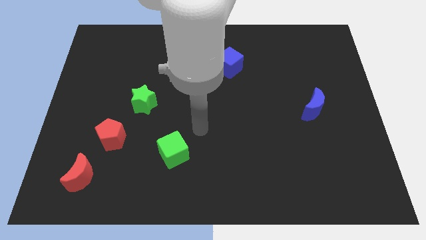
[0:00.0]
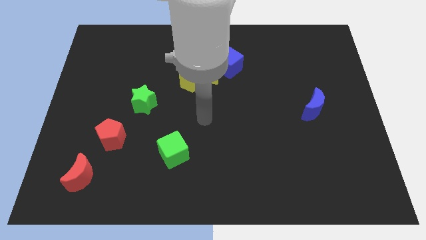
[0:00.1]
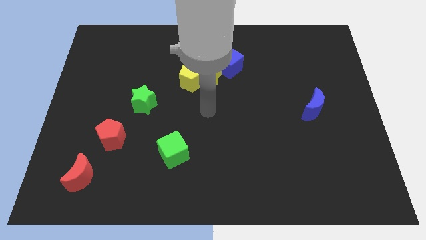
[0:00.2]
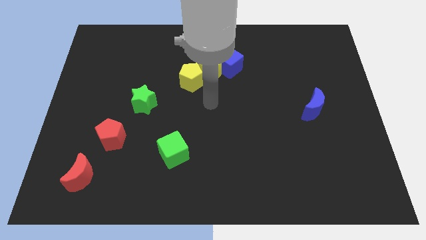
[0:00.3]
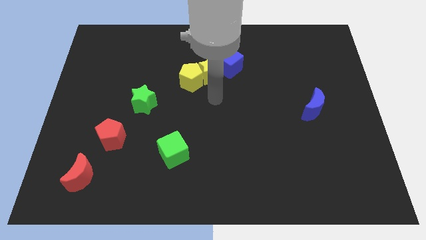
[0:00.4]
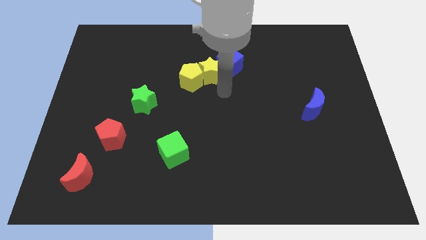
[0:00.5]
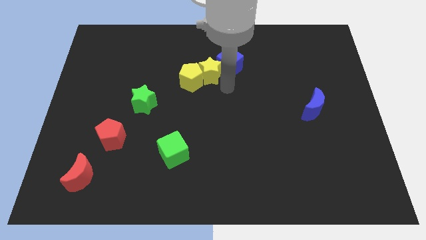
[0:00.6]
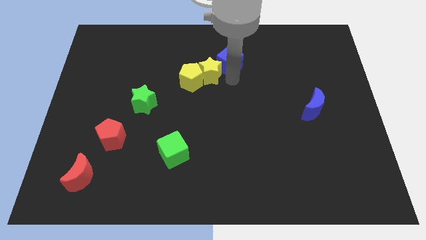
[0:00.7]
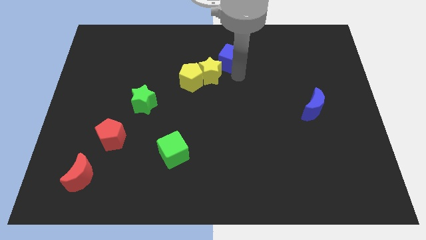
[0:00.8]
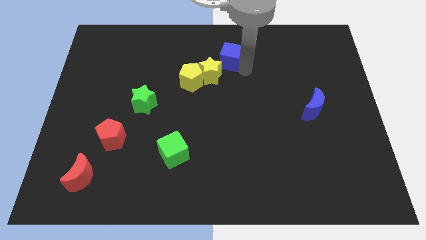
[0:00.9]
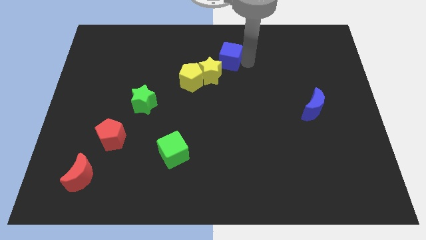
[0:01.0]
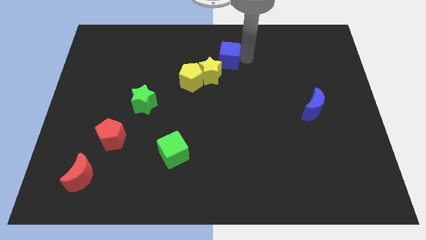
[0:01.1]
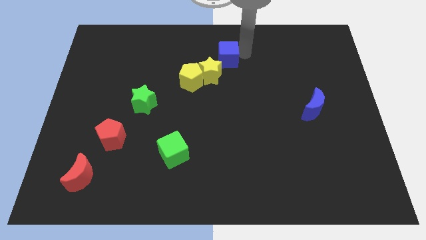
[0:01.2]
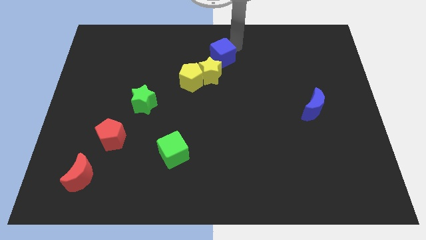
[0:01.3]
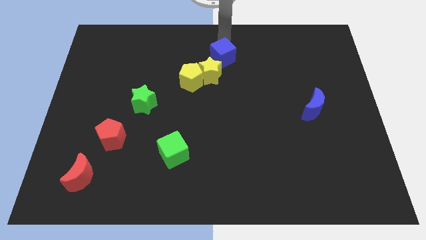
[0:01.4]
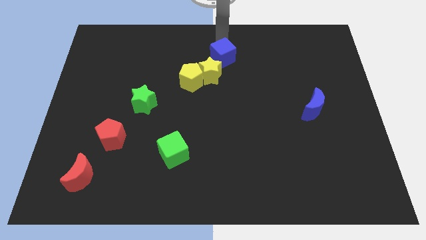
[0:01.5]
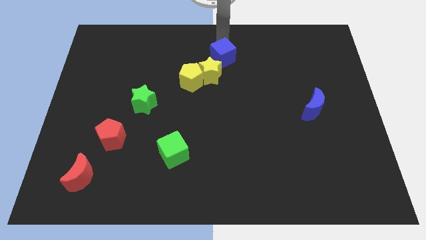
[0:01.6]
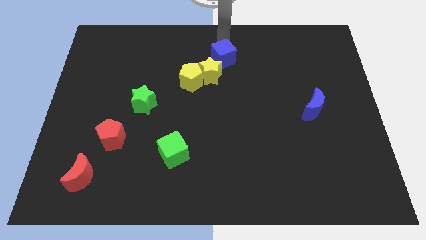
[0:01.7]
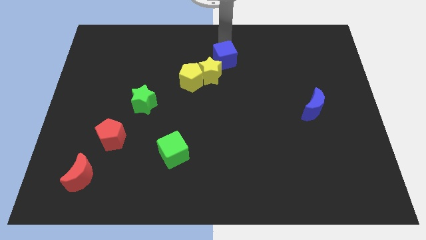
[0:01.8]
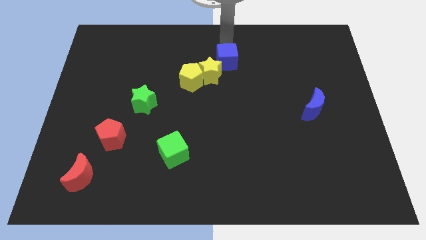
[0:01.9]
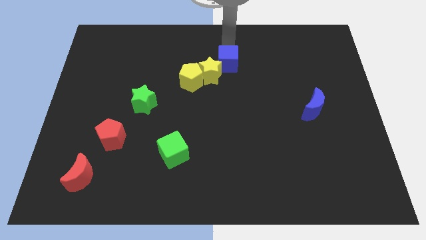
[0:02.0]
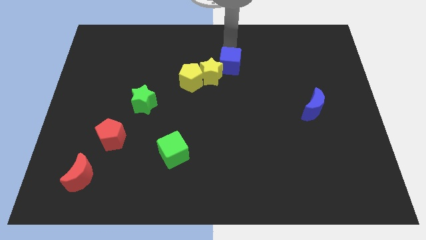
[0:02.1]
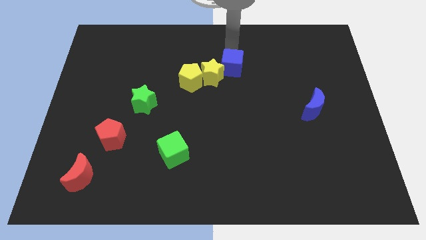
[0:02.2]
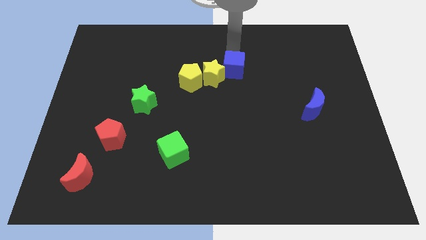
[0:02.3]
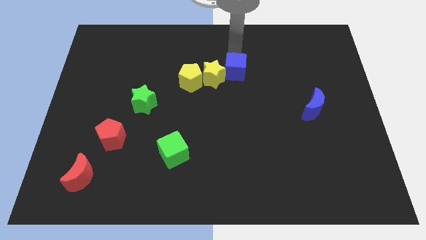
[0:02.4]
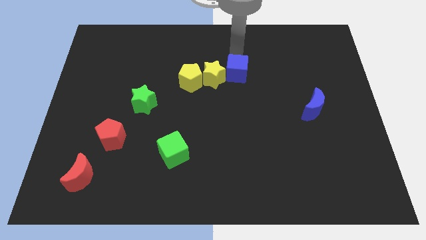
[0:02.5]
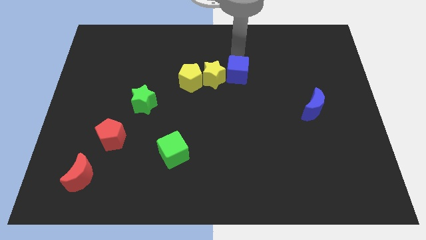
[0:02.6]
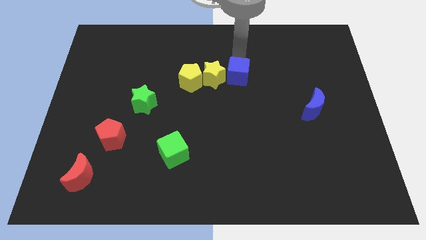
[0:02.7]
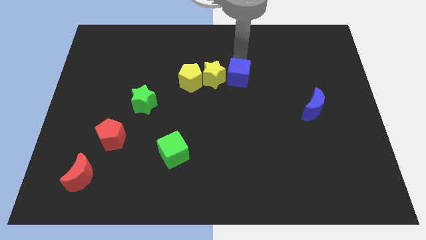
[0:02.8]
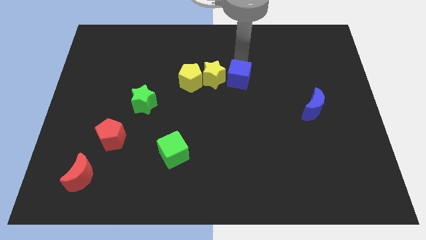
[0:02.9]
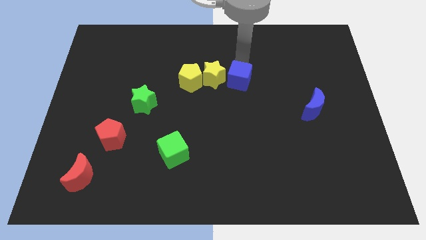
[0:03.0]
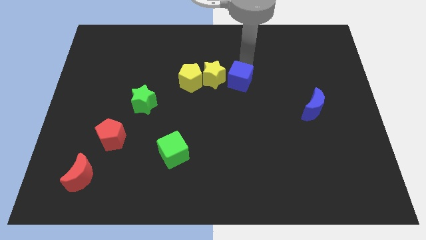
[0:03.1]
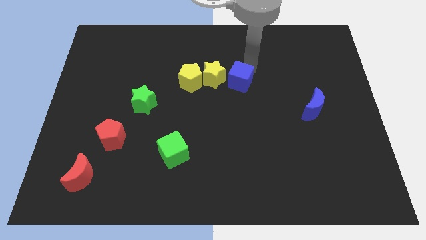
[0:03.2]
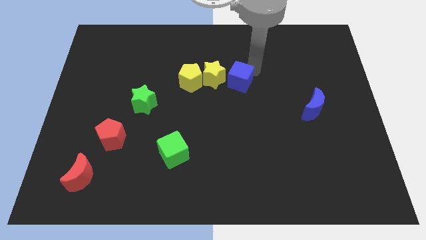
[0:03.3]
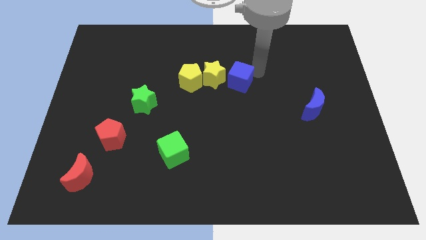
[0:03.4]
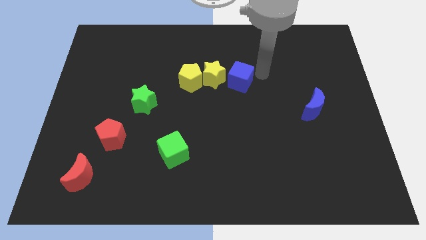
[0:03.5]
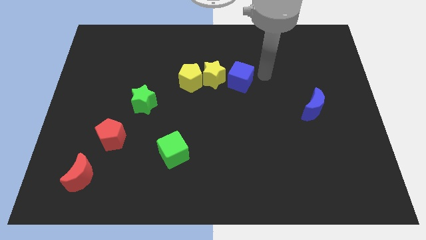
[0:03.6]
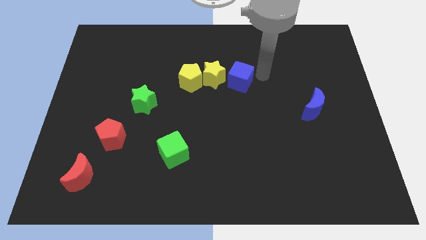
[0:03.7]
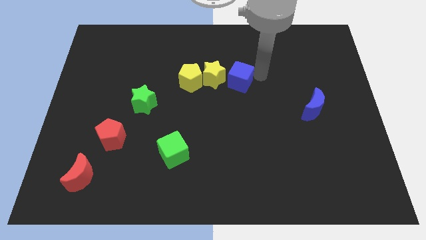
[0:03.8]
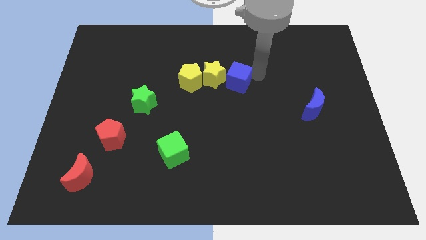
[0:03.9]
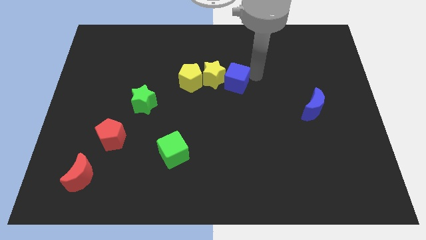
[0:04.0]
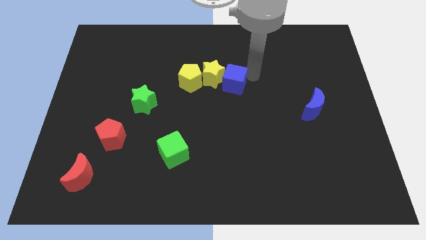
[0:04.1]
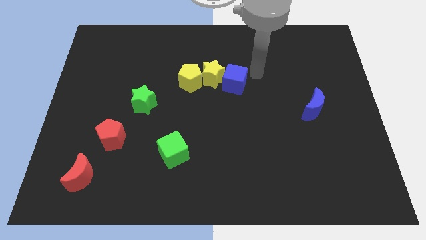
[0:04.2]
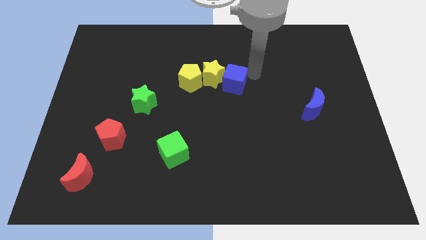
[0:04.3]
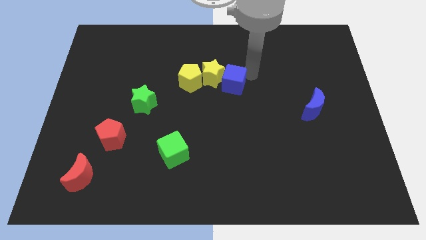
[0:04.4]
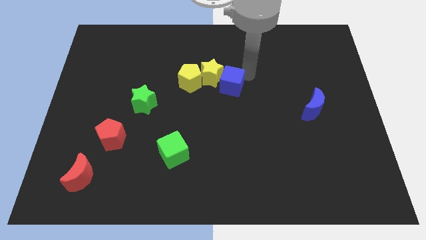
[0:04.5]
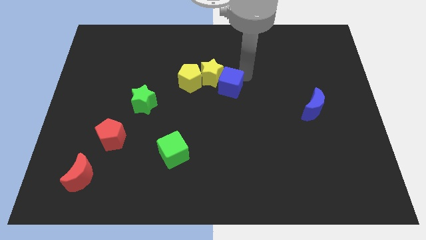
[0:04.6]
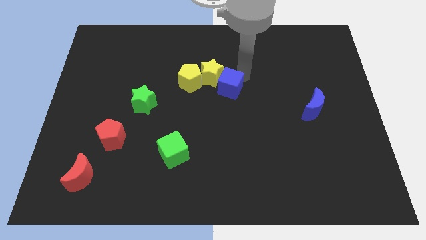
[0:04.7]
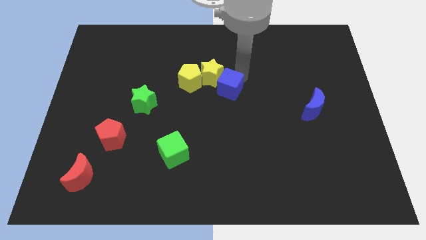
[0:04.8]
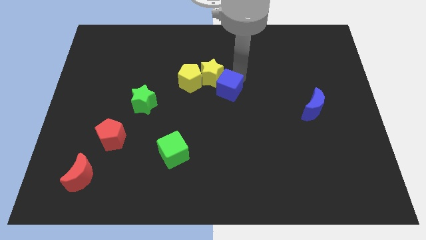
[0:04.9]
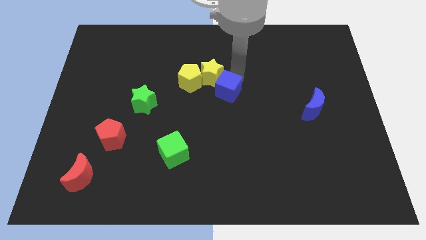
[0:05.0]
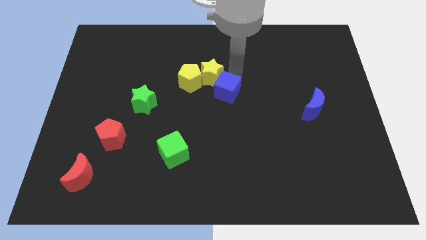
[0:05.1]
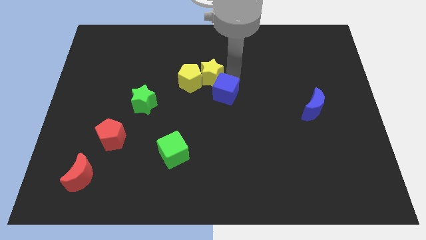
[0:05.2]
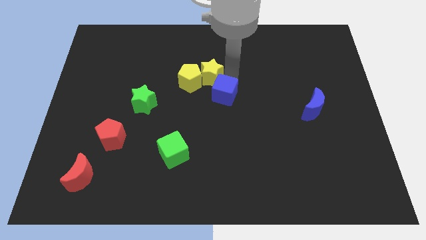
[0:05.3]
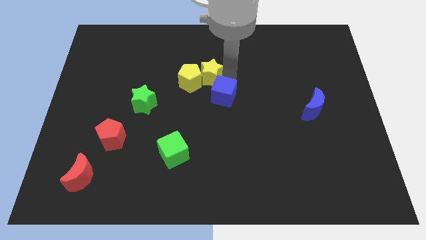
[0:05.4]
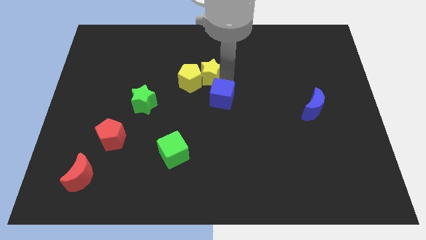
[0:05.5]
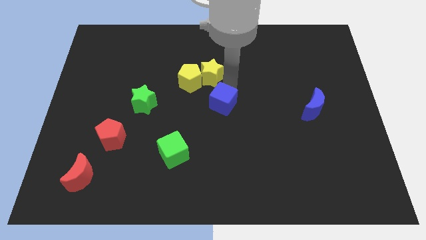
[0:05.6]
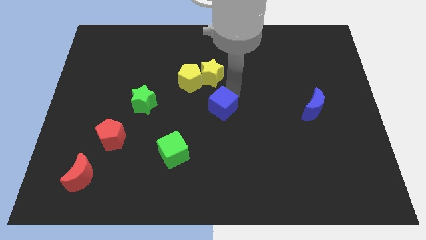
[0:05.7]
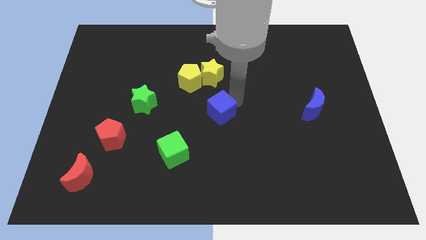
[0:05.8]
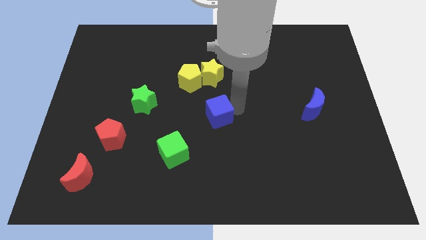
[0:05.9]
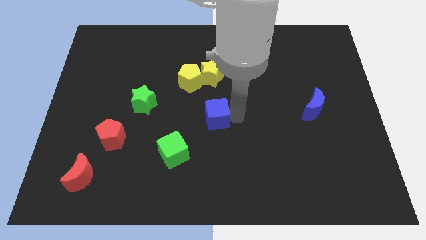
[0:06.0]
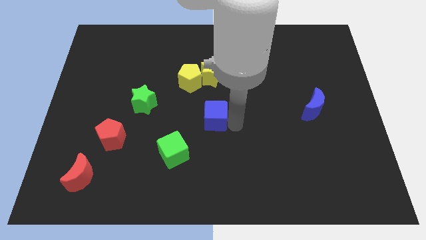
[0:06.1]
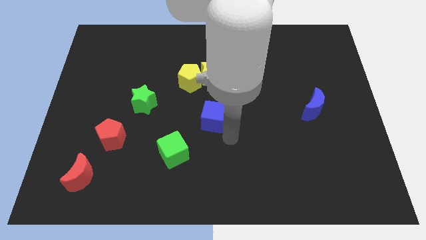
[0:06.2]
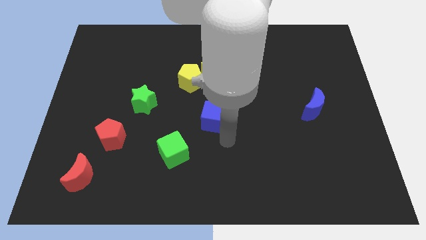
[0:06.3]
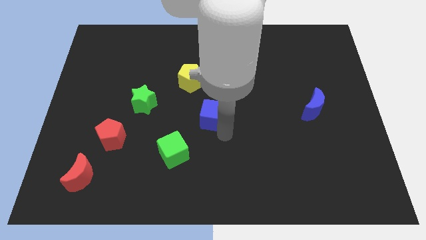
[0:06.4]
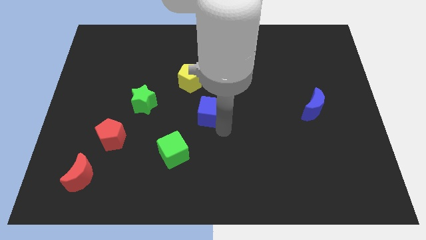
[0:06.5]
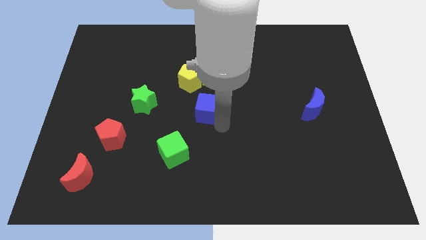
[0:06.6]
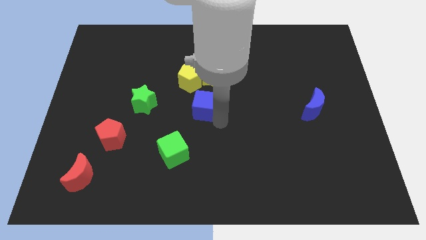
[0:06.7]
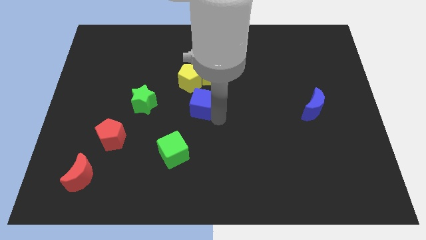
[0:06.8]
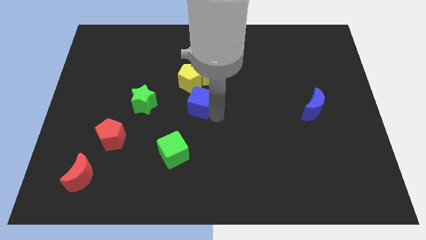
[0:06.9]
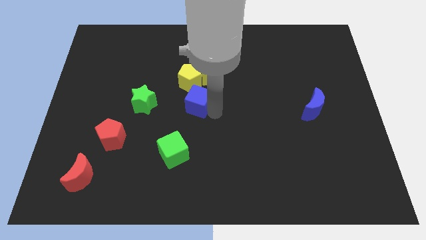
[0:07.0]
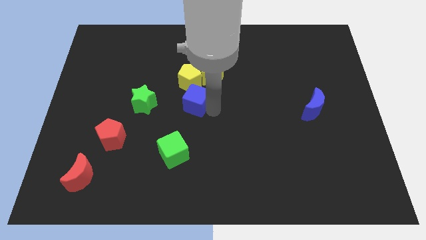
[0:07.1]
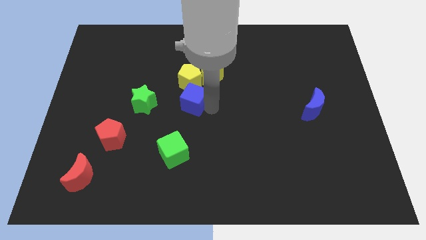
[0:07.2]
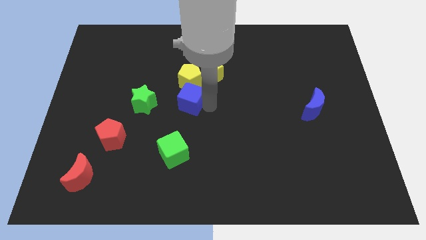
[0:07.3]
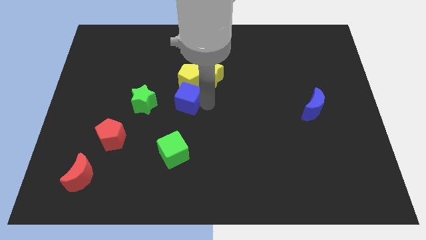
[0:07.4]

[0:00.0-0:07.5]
move the blue cube next to the yellow pentagon
